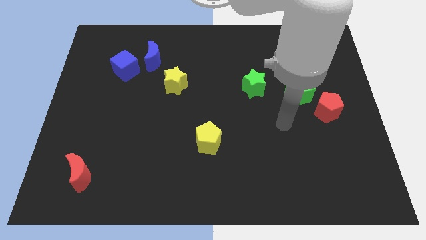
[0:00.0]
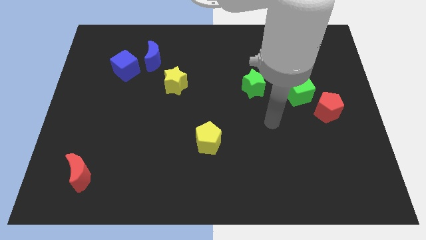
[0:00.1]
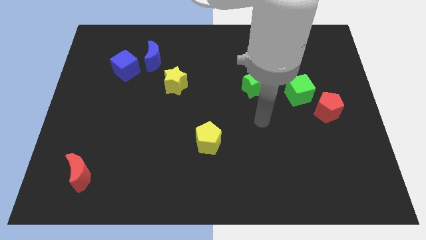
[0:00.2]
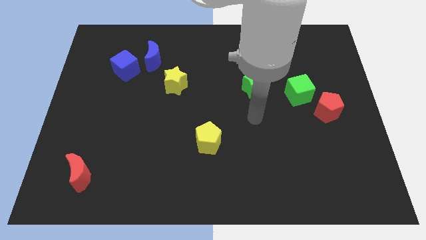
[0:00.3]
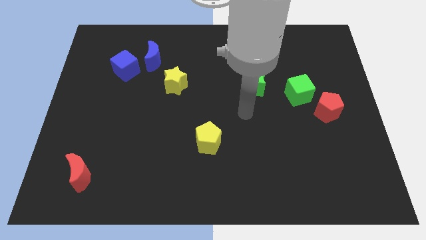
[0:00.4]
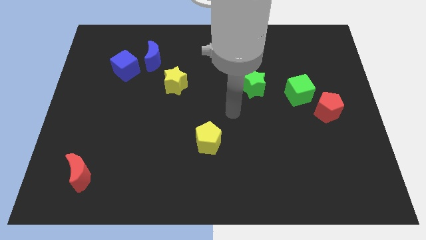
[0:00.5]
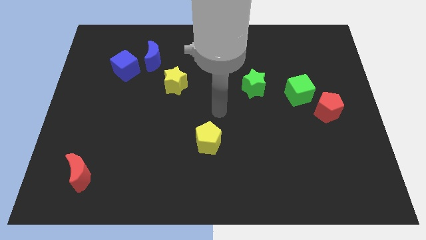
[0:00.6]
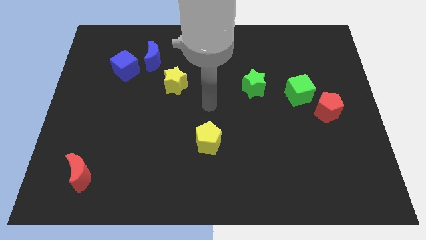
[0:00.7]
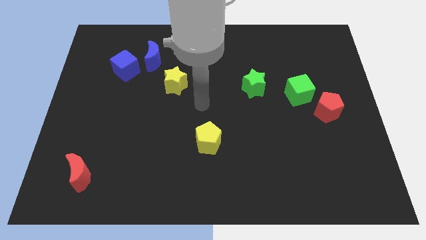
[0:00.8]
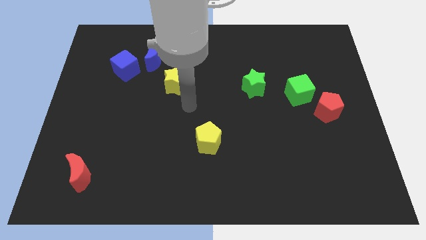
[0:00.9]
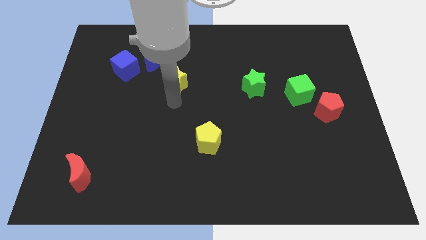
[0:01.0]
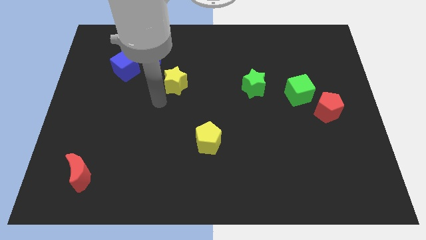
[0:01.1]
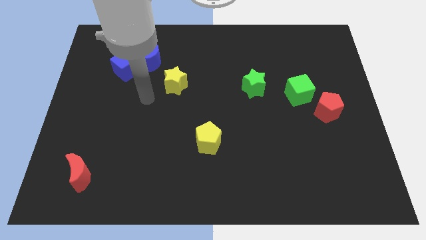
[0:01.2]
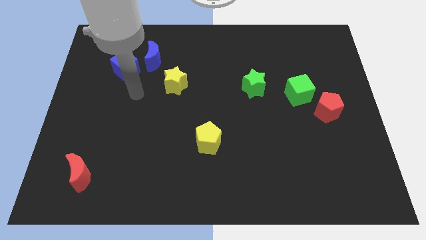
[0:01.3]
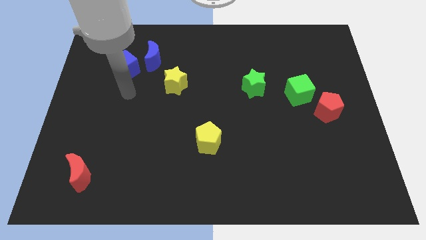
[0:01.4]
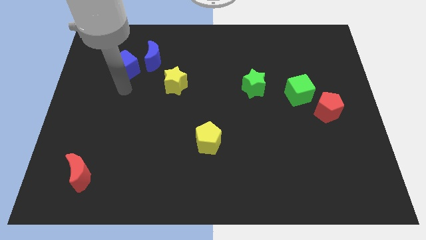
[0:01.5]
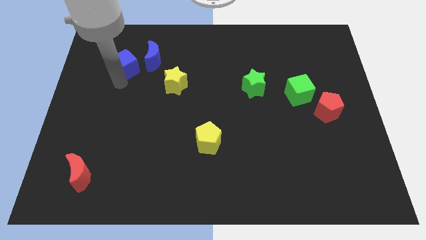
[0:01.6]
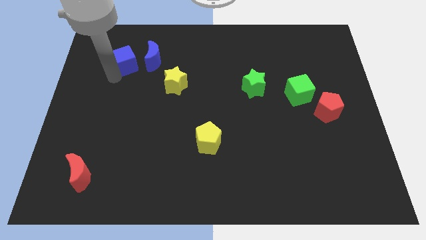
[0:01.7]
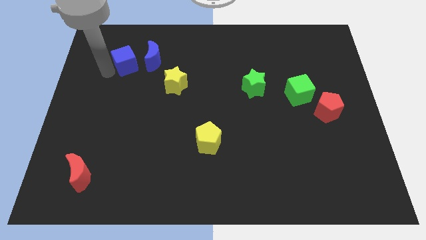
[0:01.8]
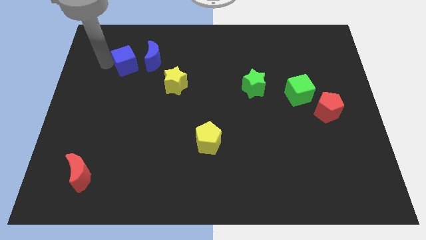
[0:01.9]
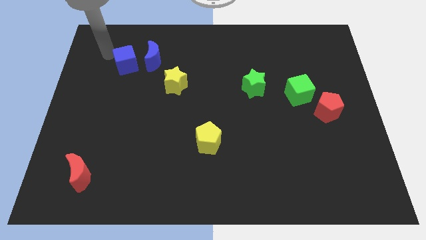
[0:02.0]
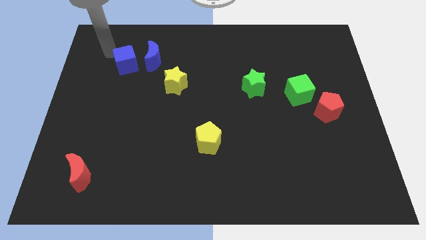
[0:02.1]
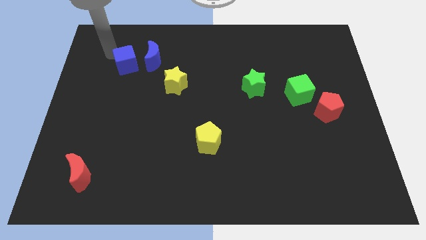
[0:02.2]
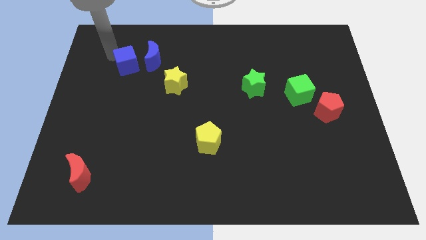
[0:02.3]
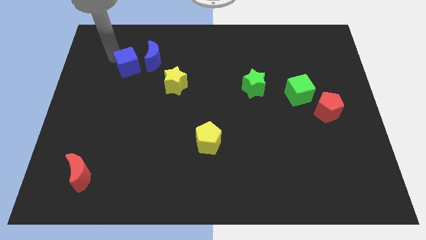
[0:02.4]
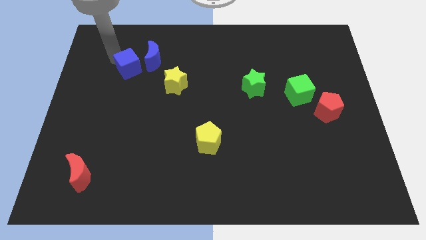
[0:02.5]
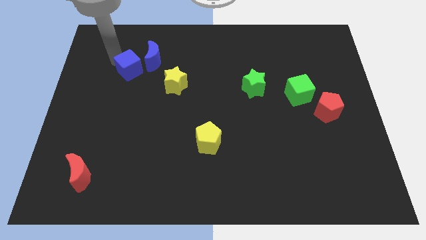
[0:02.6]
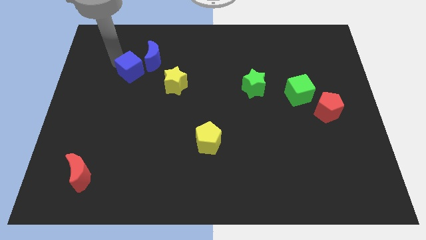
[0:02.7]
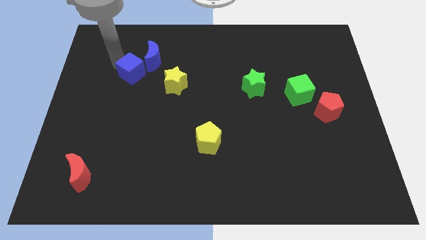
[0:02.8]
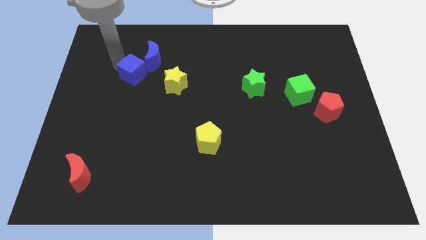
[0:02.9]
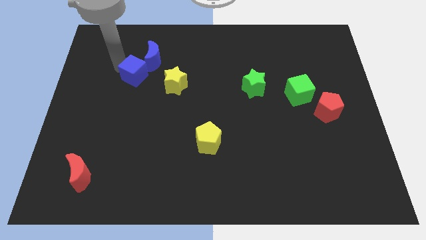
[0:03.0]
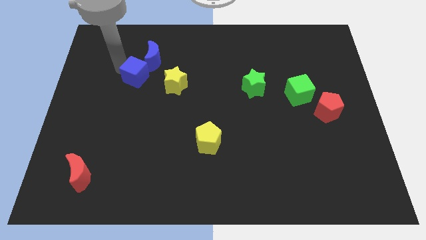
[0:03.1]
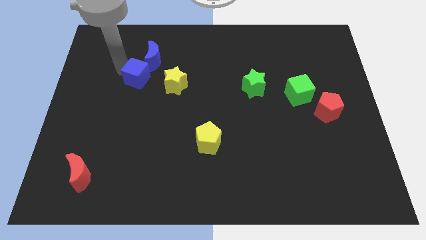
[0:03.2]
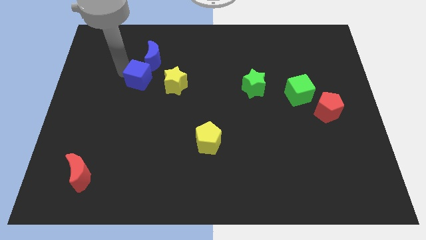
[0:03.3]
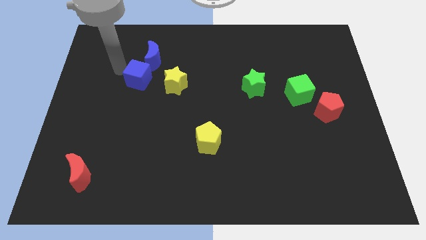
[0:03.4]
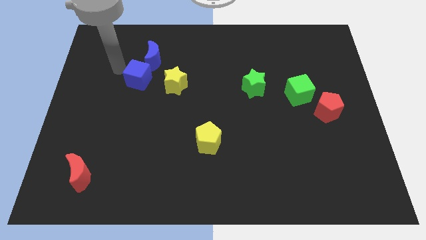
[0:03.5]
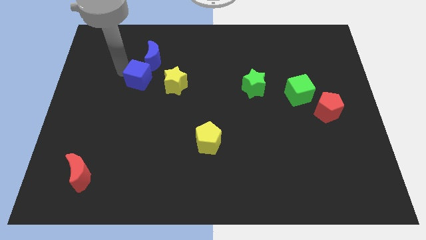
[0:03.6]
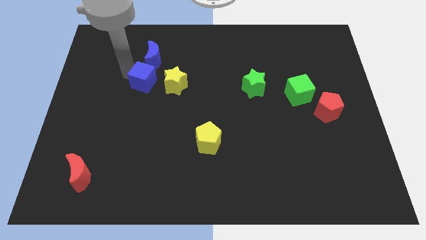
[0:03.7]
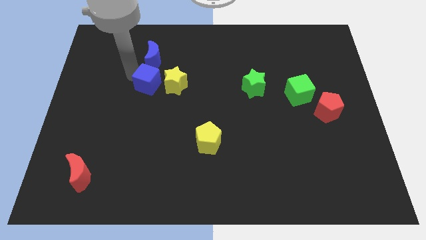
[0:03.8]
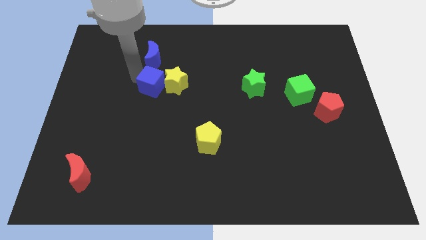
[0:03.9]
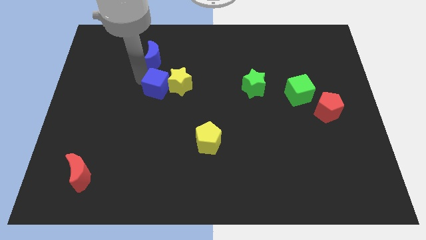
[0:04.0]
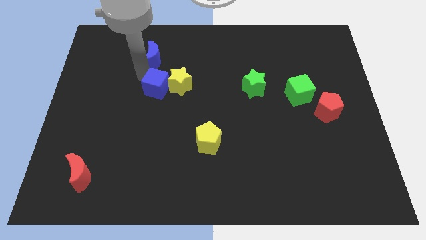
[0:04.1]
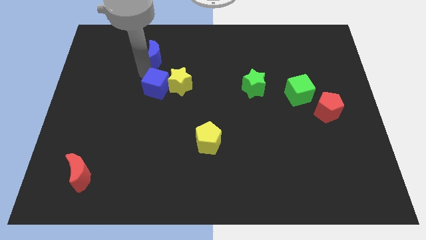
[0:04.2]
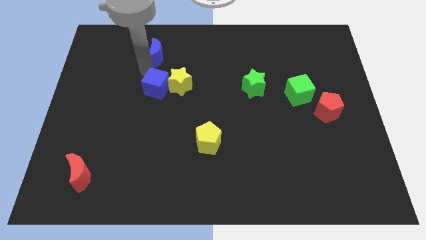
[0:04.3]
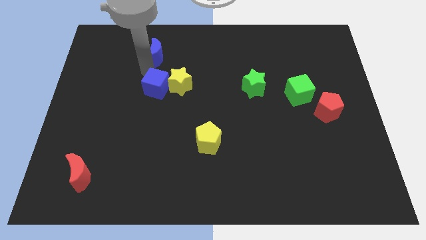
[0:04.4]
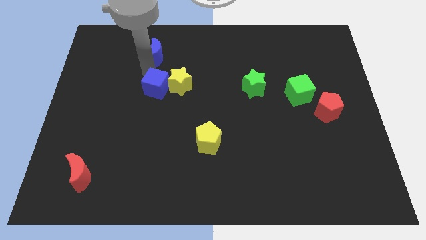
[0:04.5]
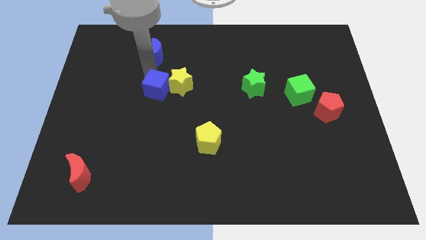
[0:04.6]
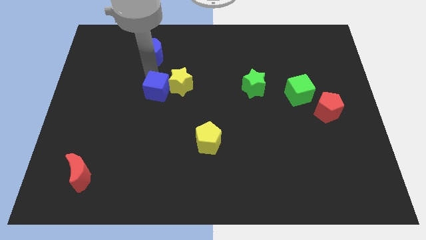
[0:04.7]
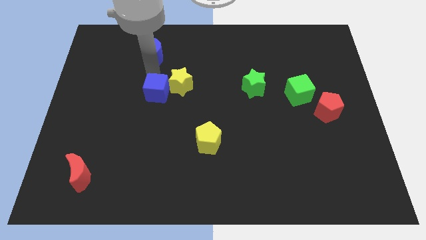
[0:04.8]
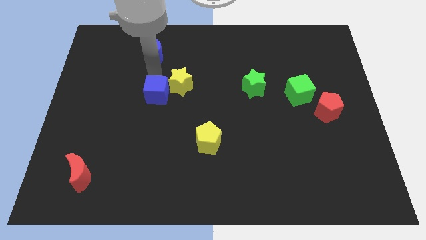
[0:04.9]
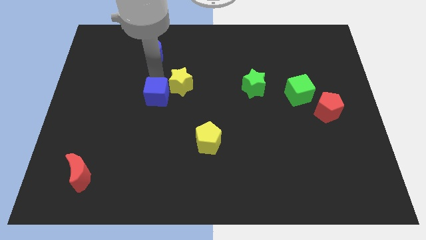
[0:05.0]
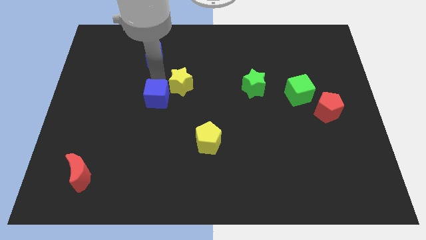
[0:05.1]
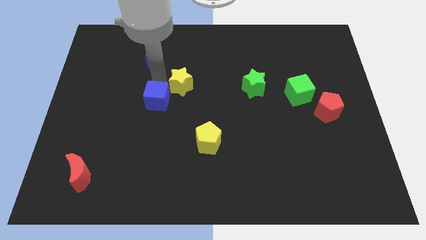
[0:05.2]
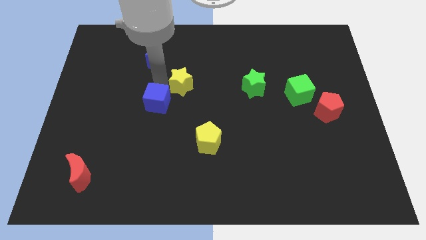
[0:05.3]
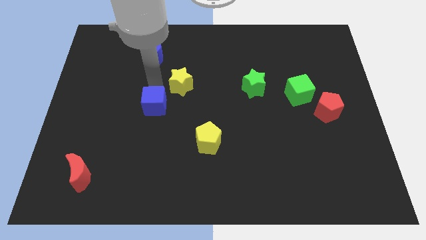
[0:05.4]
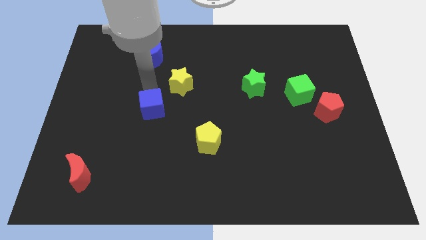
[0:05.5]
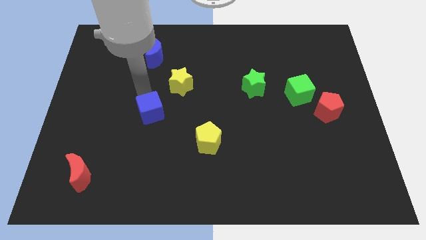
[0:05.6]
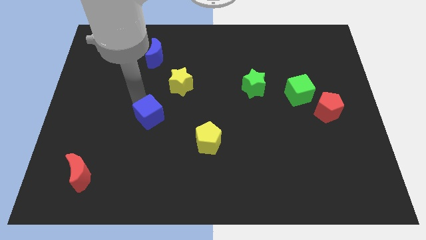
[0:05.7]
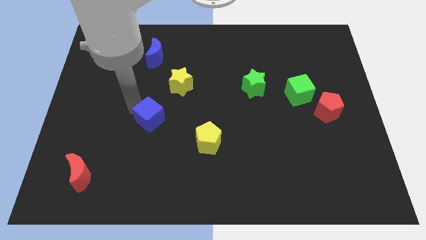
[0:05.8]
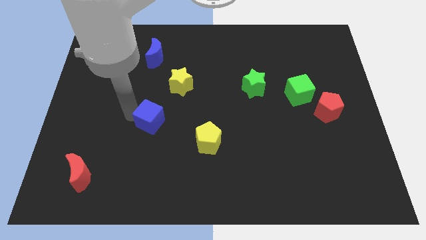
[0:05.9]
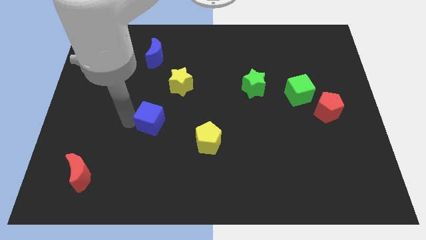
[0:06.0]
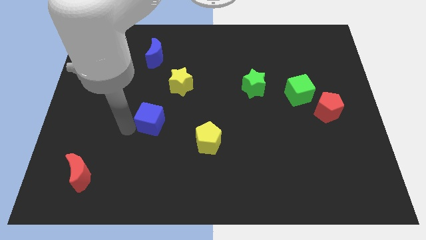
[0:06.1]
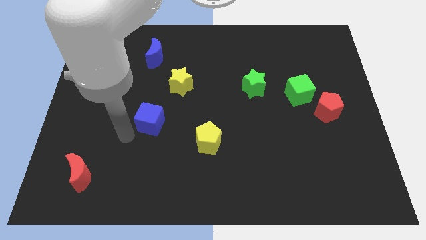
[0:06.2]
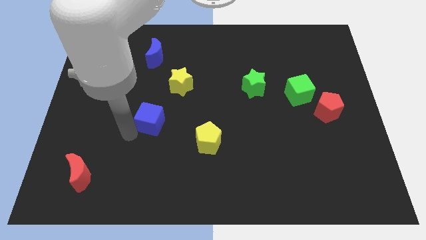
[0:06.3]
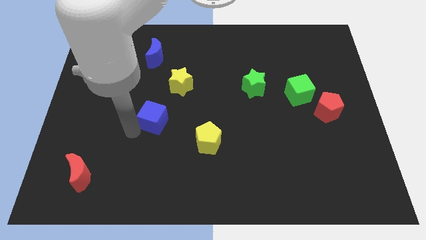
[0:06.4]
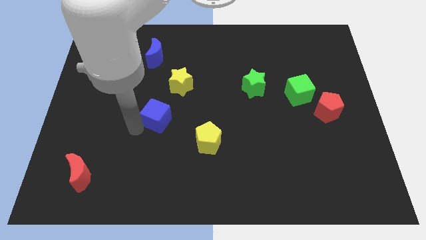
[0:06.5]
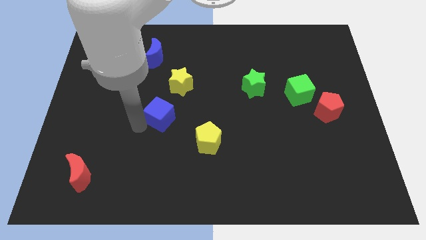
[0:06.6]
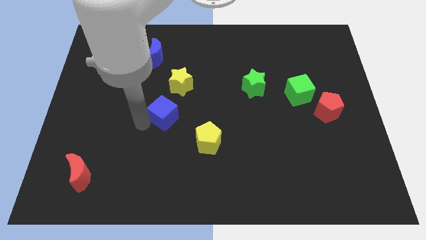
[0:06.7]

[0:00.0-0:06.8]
push the blue cube to the middle
